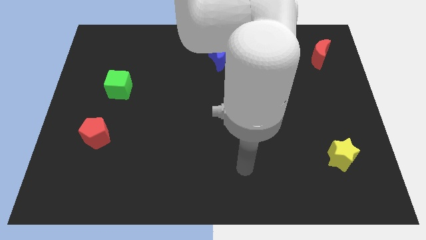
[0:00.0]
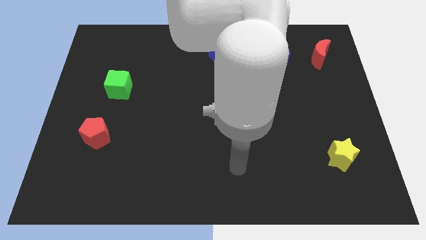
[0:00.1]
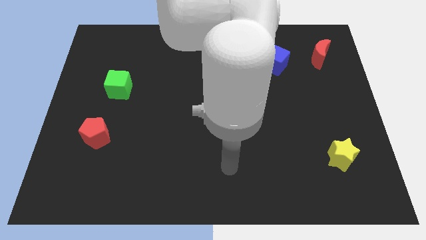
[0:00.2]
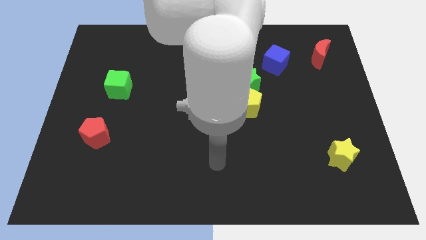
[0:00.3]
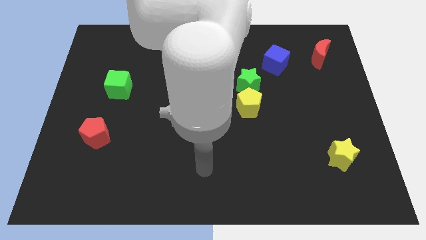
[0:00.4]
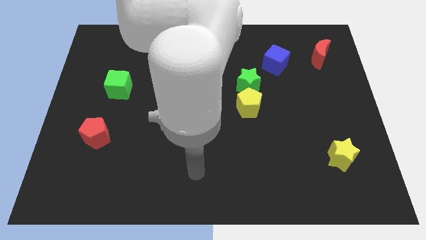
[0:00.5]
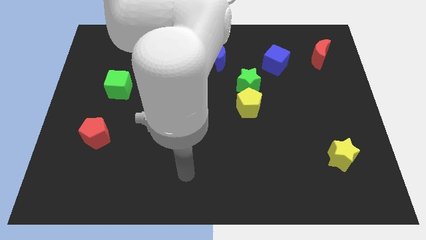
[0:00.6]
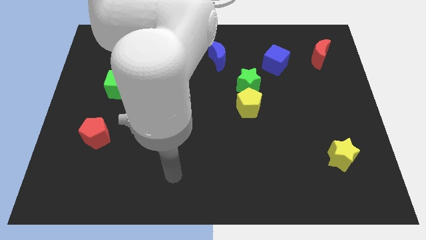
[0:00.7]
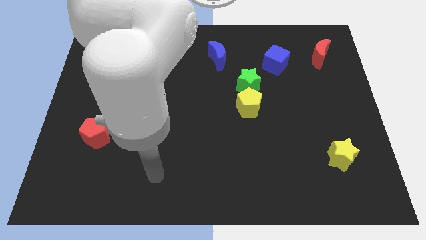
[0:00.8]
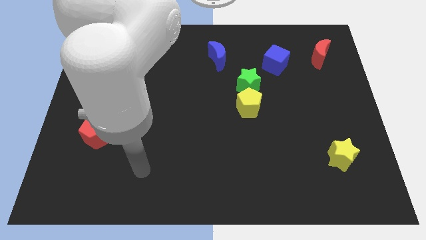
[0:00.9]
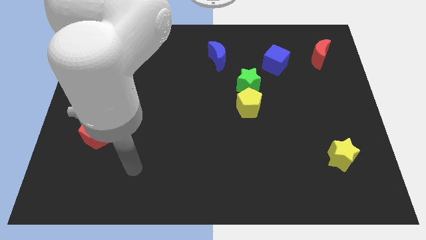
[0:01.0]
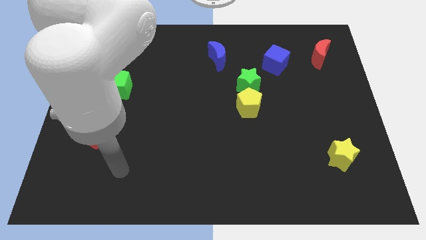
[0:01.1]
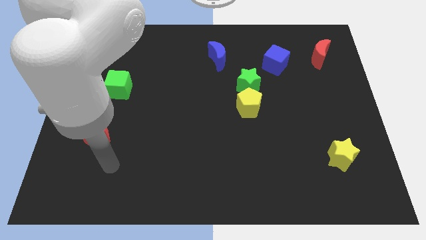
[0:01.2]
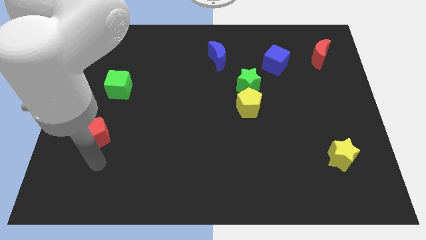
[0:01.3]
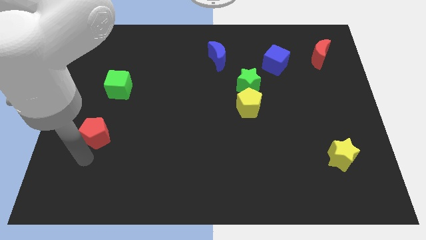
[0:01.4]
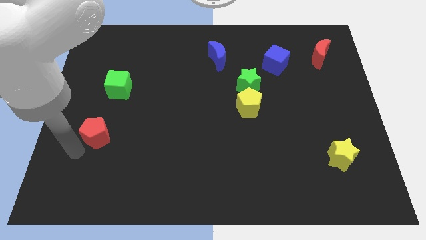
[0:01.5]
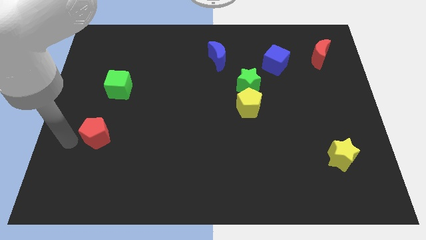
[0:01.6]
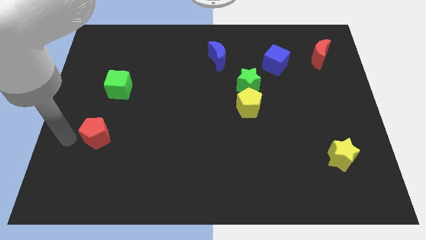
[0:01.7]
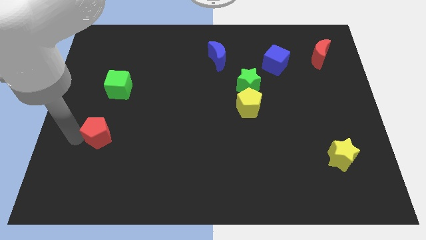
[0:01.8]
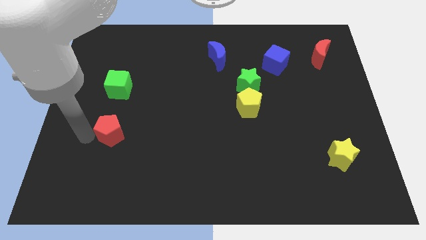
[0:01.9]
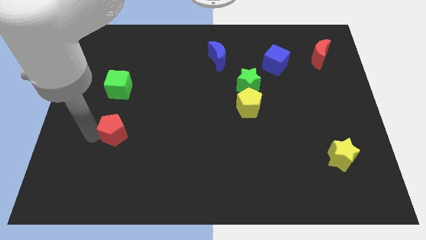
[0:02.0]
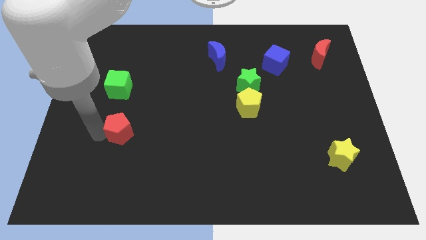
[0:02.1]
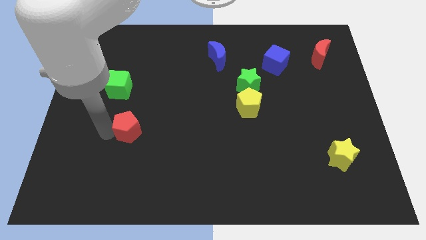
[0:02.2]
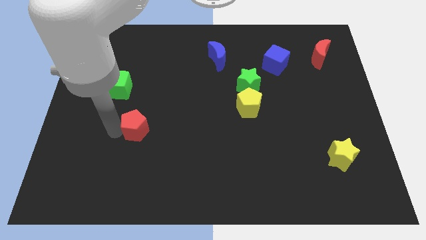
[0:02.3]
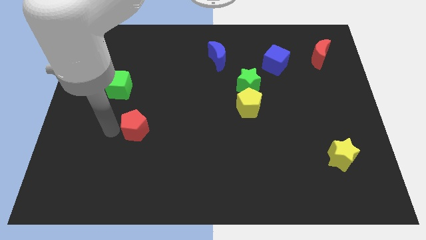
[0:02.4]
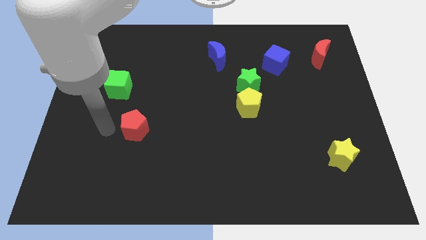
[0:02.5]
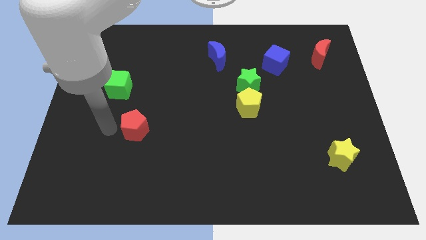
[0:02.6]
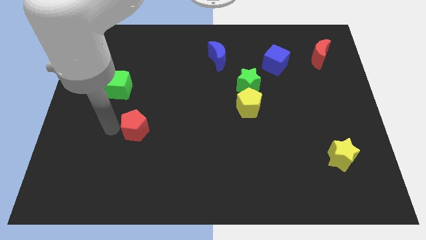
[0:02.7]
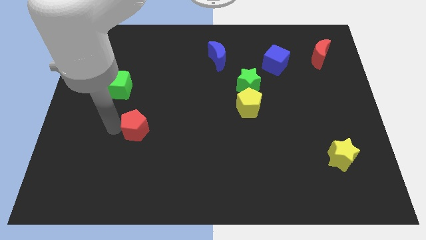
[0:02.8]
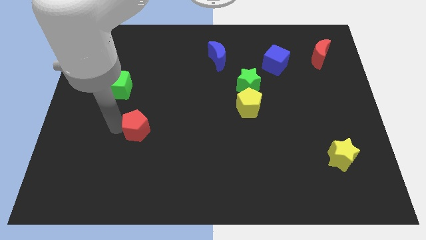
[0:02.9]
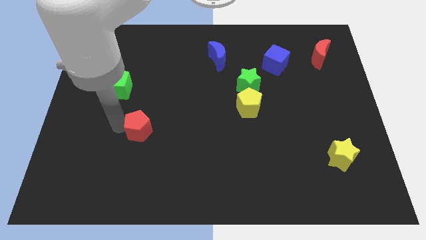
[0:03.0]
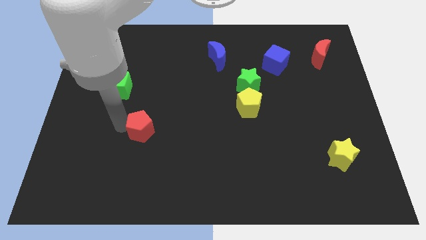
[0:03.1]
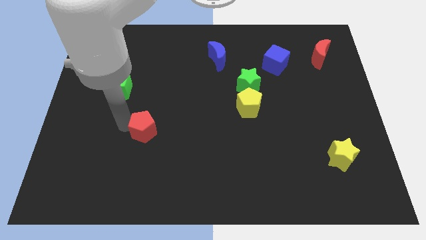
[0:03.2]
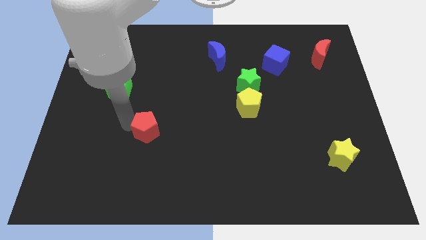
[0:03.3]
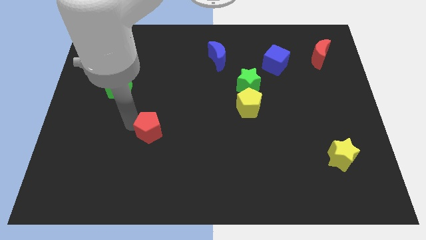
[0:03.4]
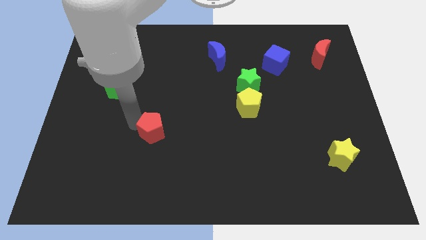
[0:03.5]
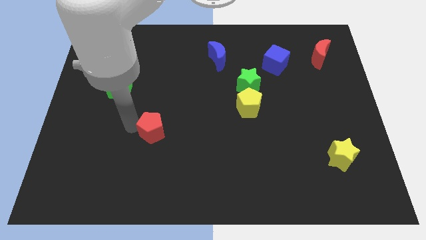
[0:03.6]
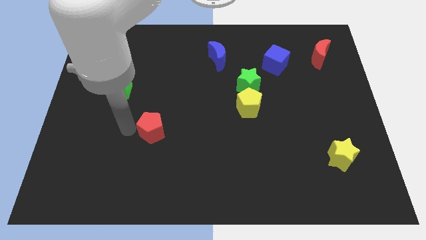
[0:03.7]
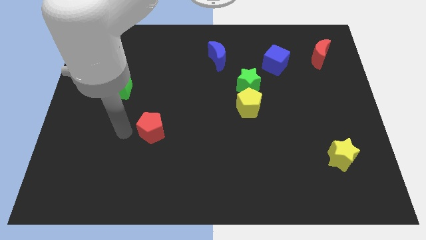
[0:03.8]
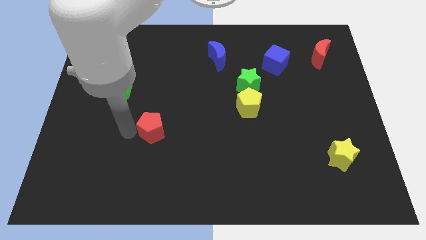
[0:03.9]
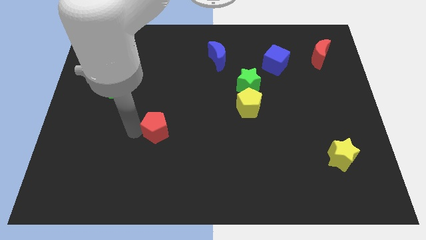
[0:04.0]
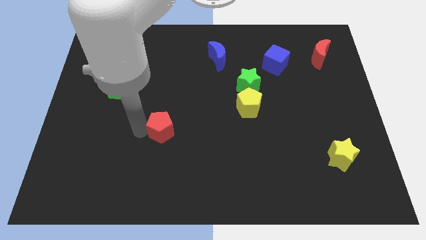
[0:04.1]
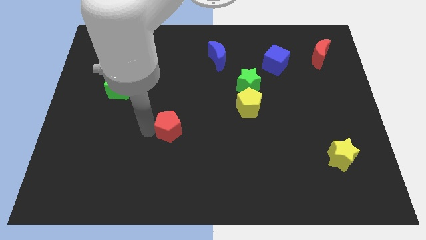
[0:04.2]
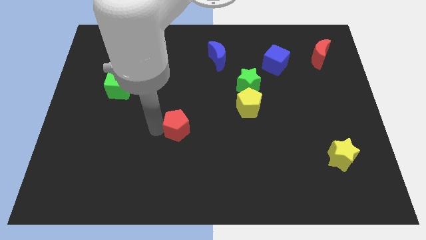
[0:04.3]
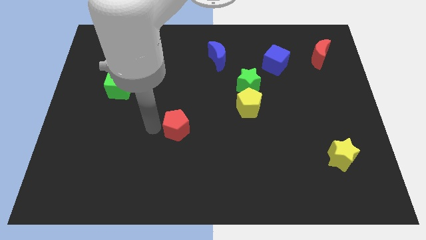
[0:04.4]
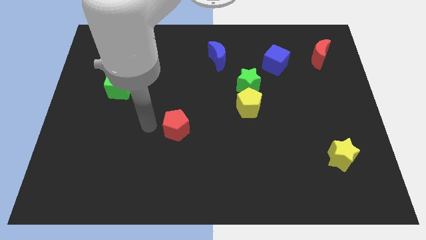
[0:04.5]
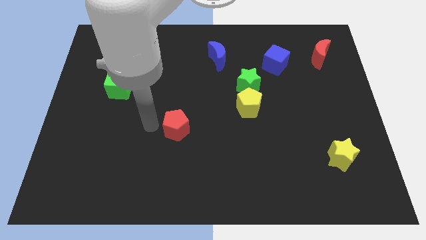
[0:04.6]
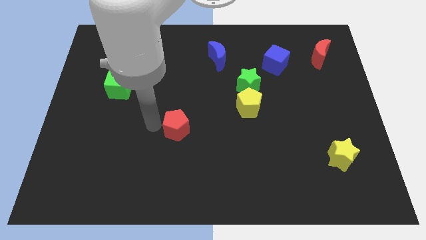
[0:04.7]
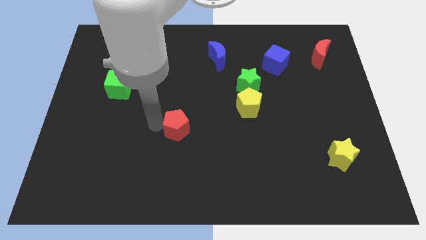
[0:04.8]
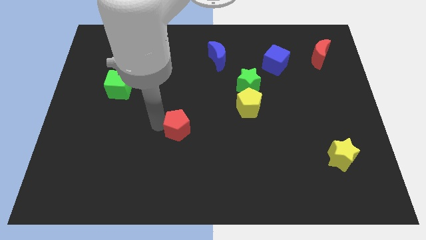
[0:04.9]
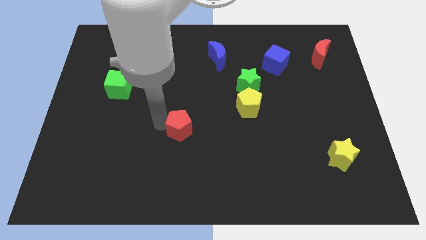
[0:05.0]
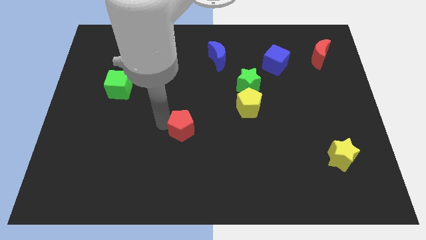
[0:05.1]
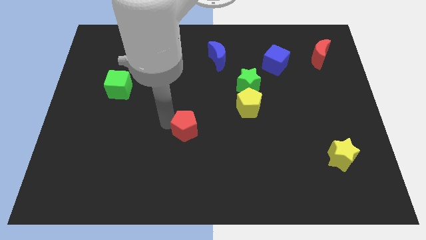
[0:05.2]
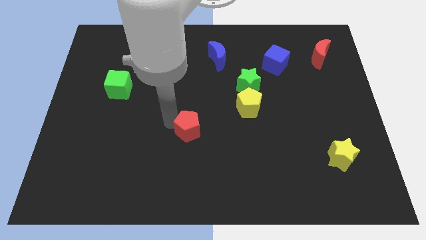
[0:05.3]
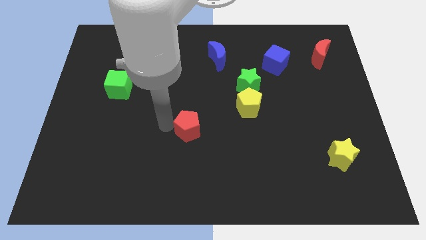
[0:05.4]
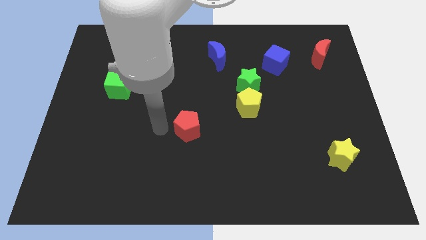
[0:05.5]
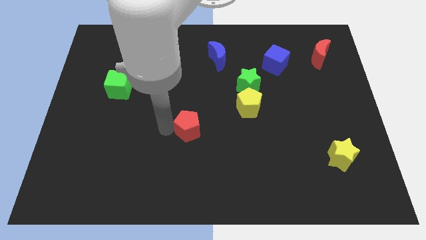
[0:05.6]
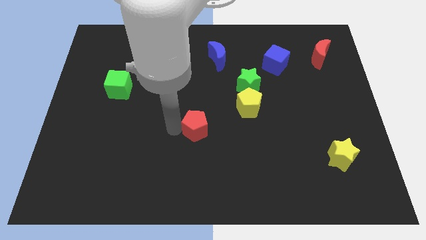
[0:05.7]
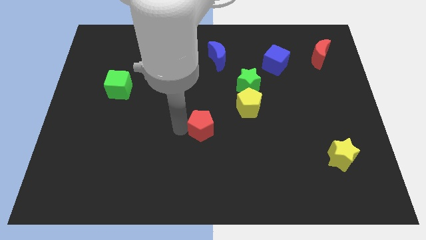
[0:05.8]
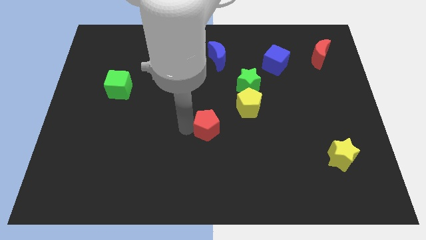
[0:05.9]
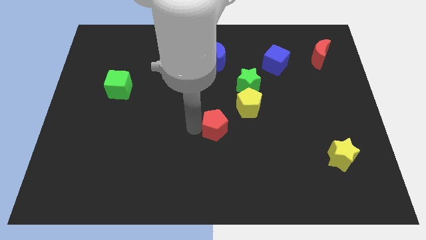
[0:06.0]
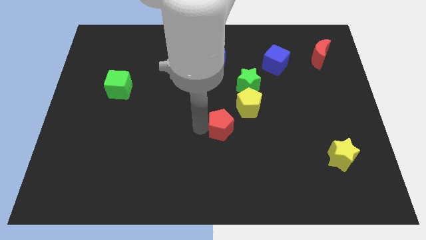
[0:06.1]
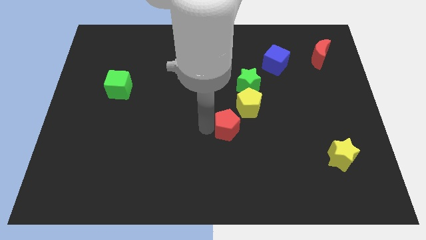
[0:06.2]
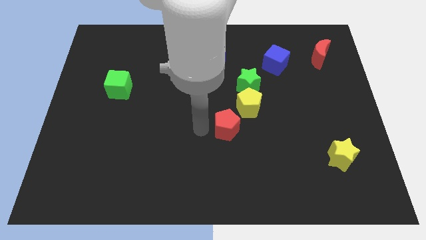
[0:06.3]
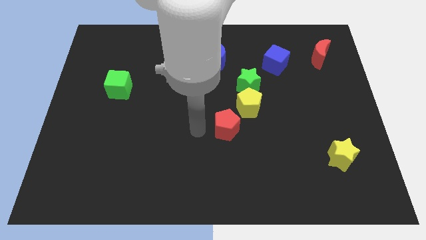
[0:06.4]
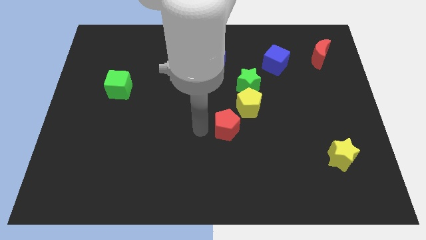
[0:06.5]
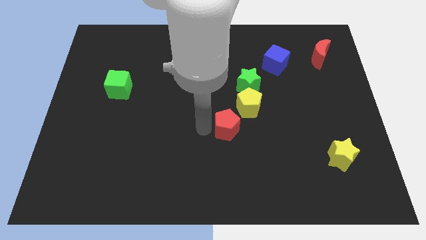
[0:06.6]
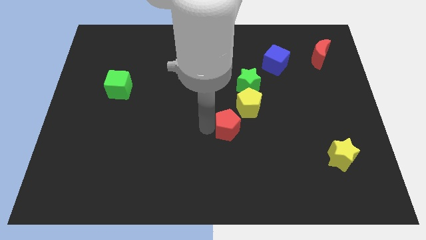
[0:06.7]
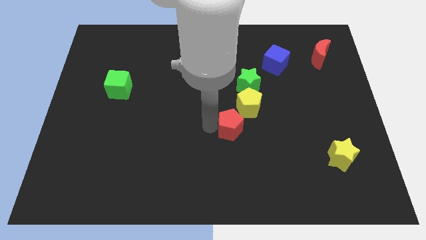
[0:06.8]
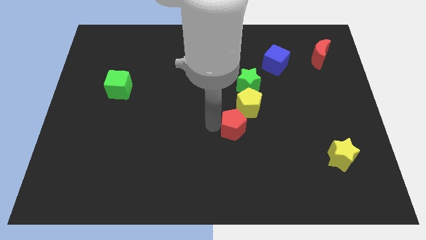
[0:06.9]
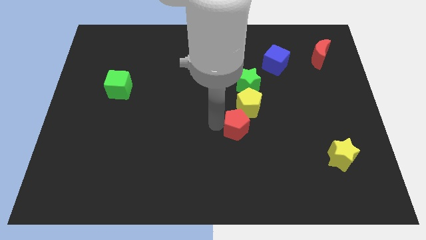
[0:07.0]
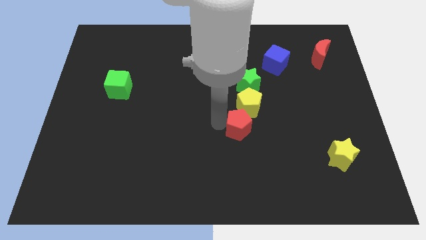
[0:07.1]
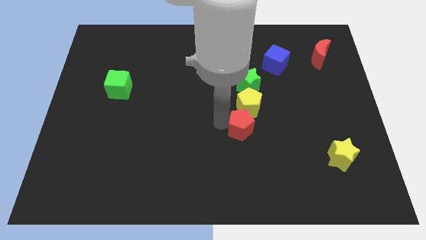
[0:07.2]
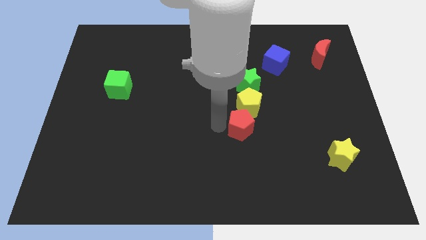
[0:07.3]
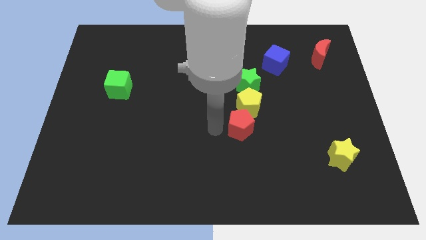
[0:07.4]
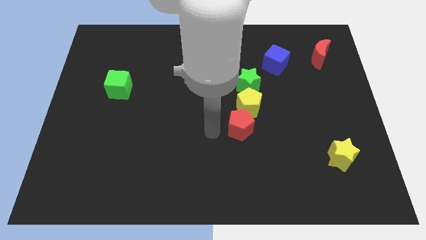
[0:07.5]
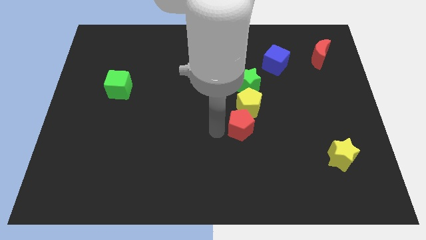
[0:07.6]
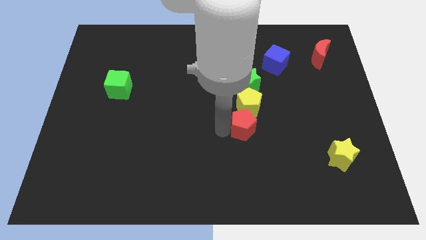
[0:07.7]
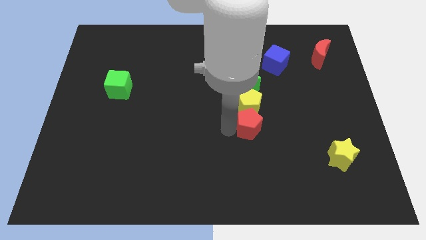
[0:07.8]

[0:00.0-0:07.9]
slide the red pentagon to the bottom right side of the yellow pentagon
